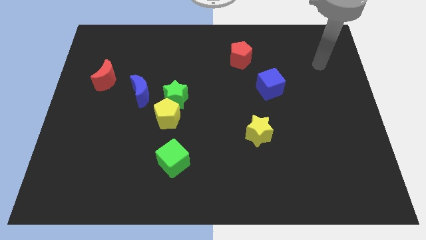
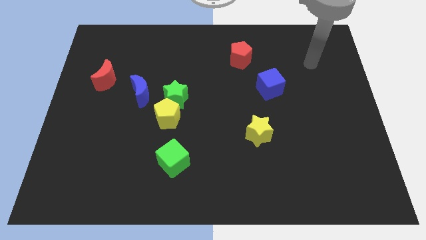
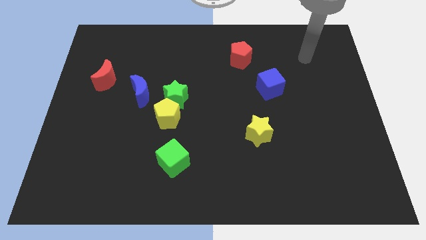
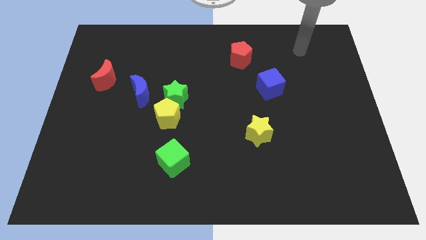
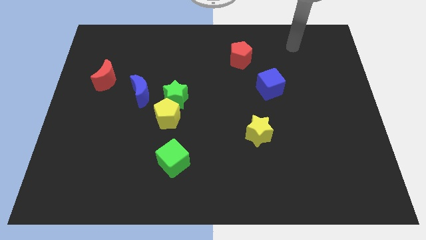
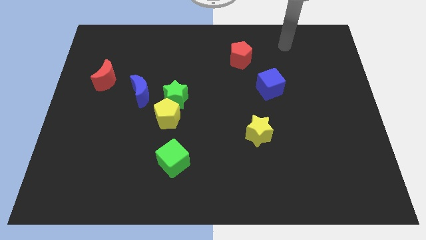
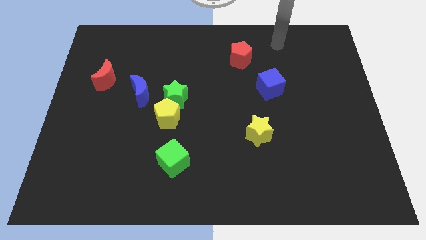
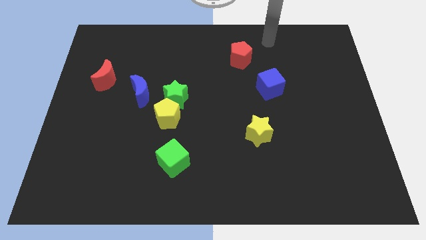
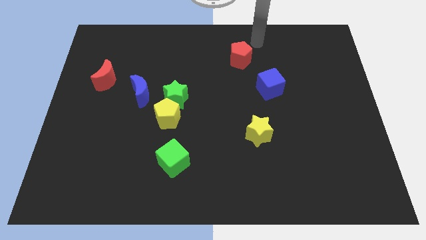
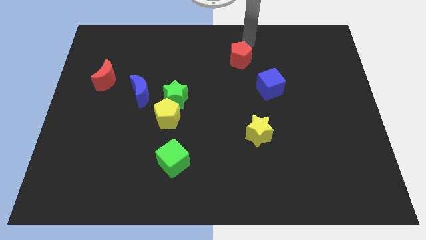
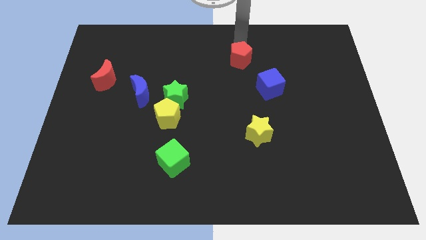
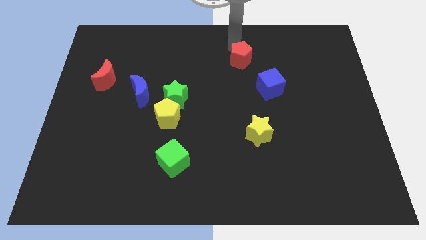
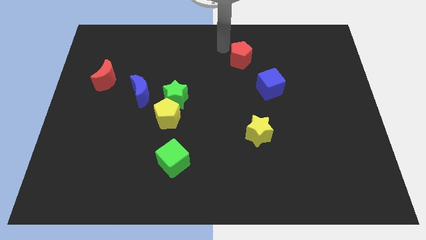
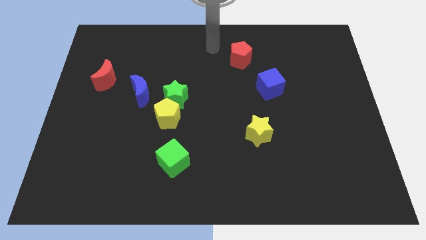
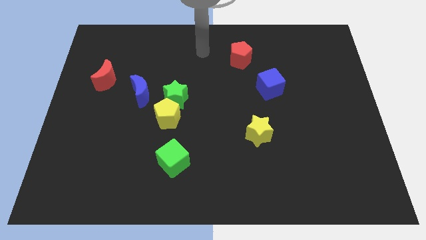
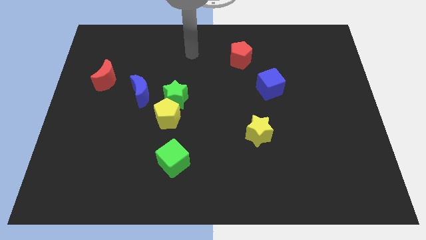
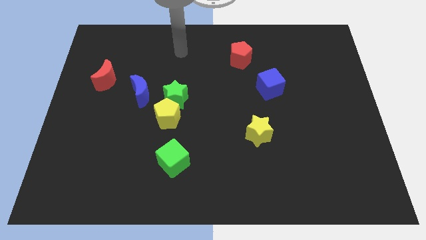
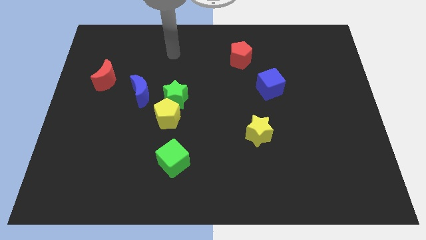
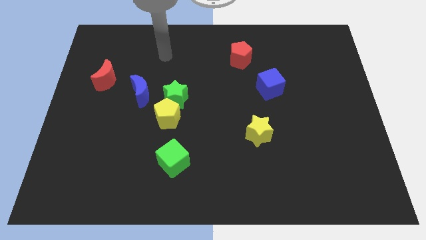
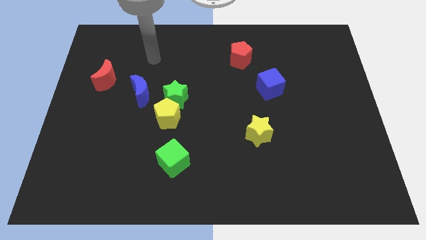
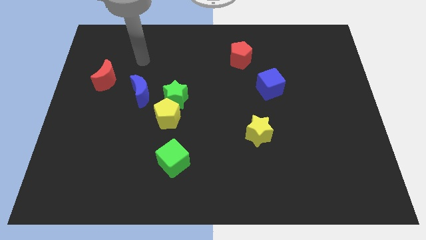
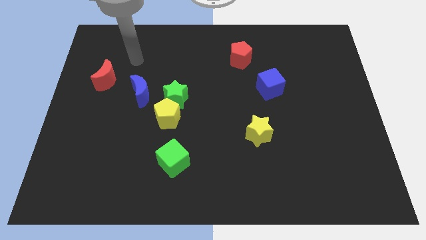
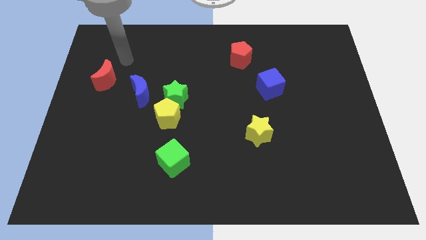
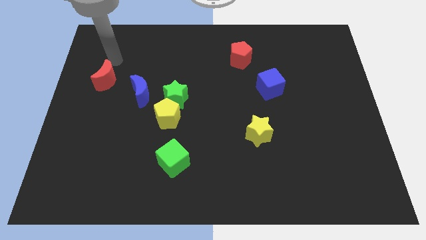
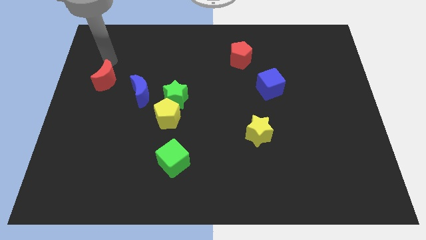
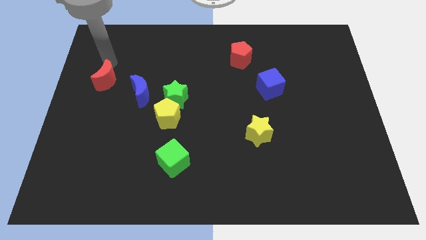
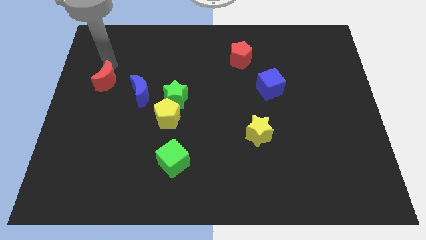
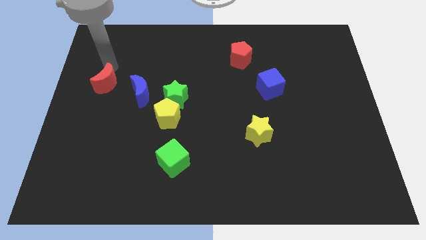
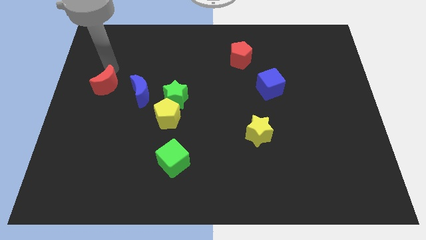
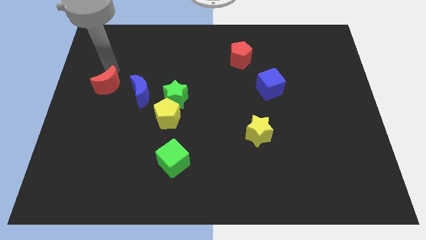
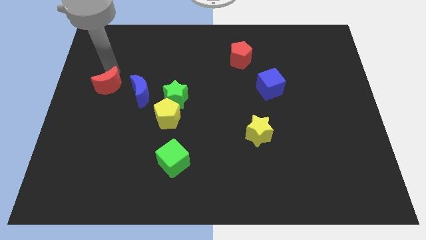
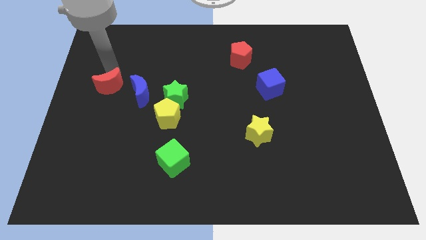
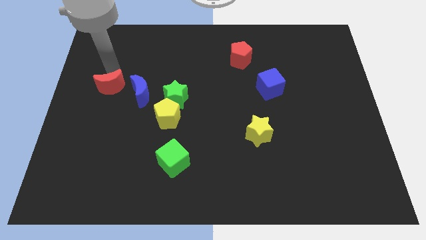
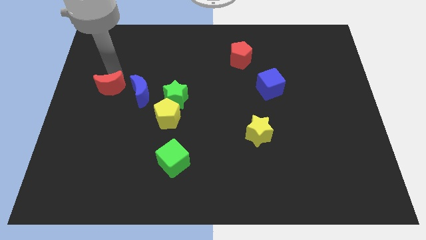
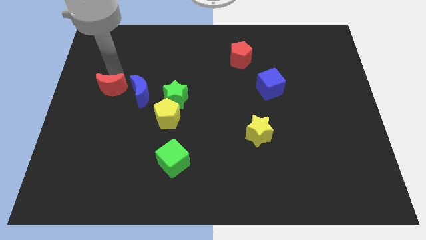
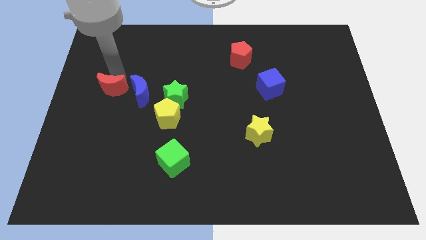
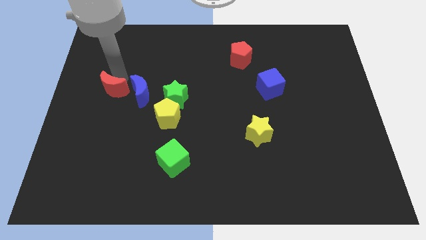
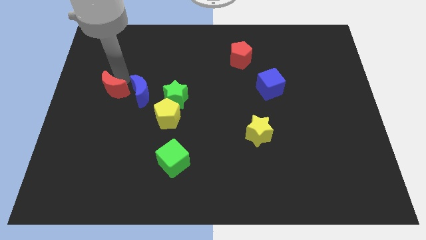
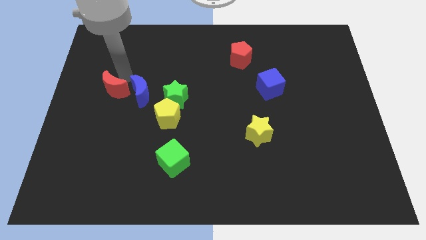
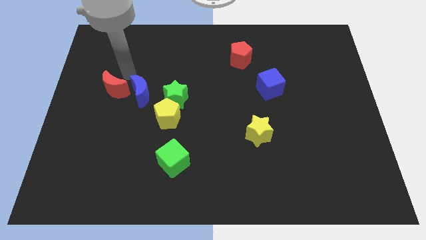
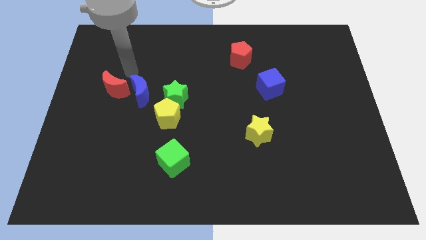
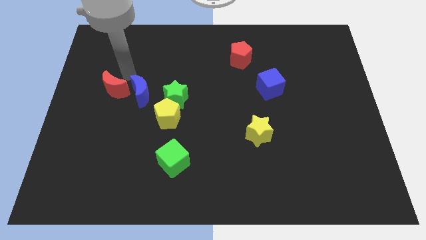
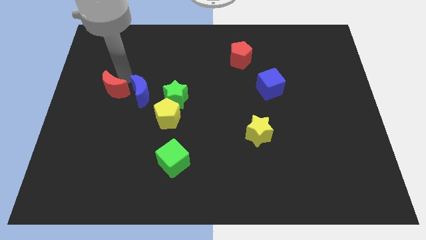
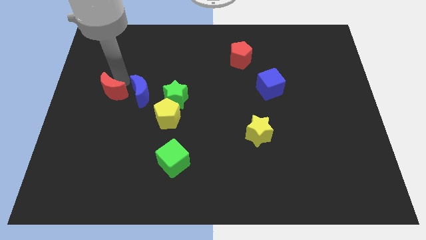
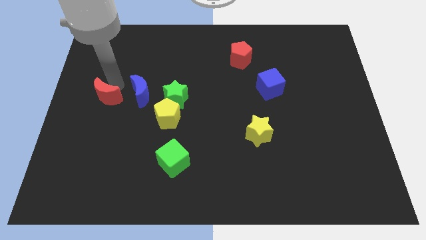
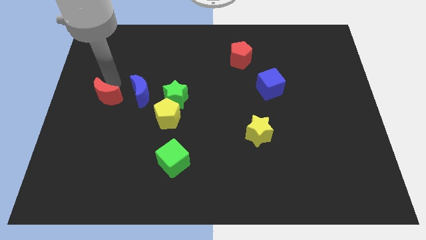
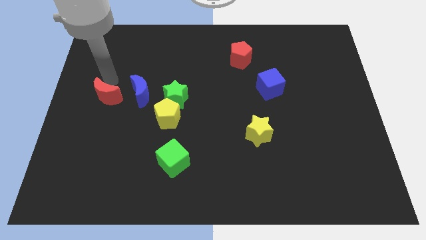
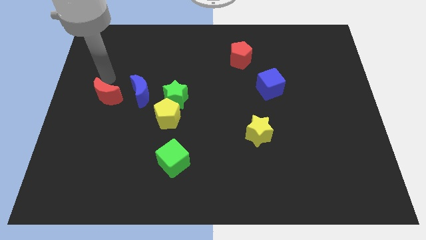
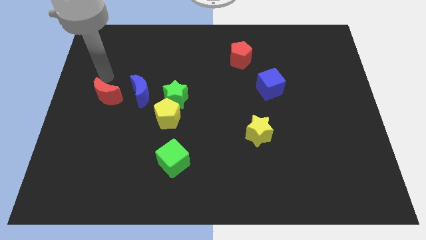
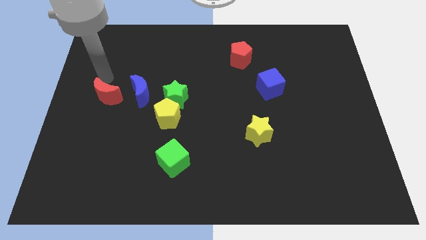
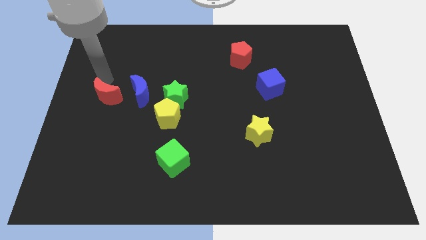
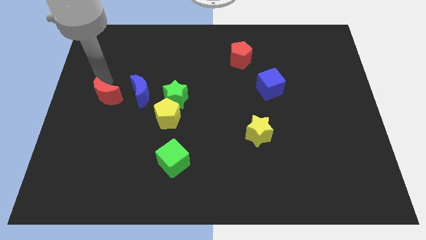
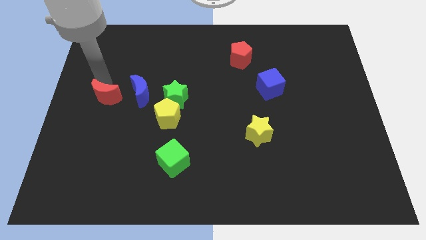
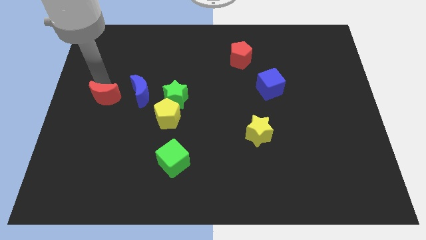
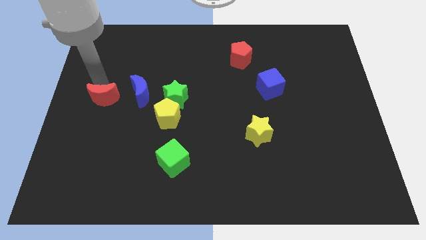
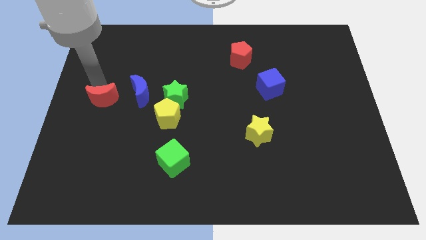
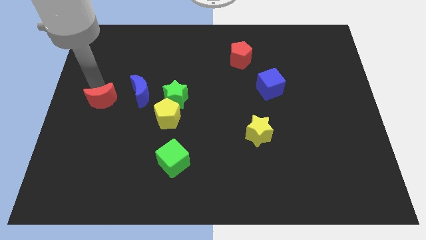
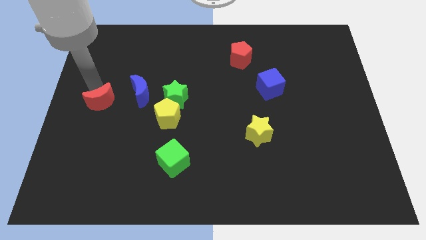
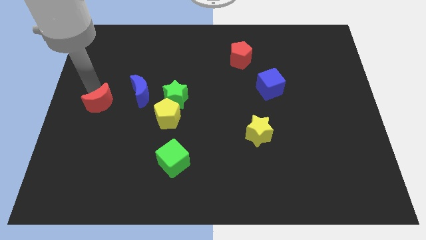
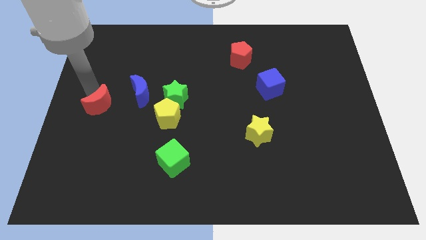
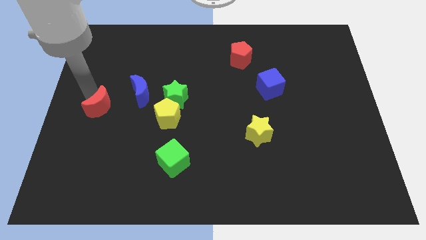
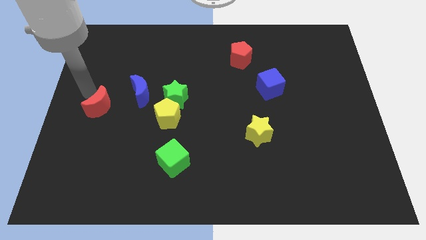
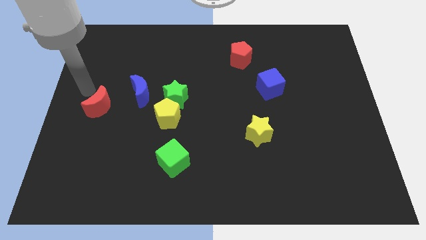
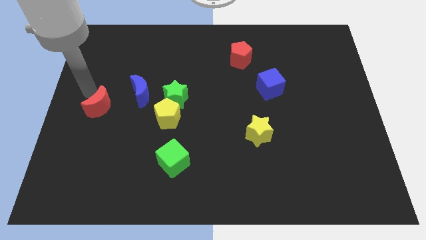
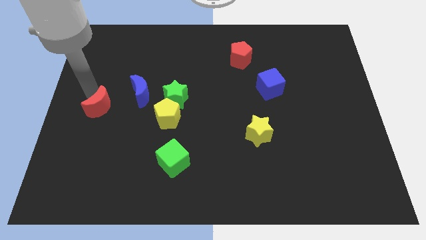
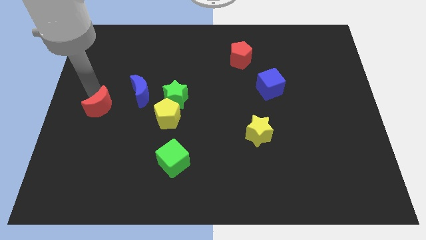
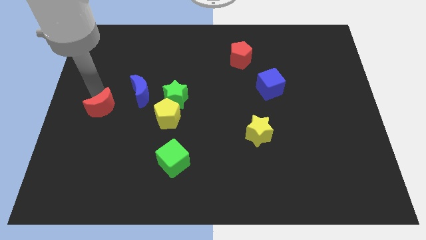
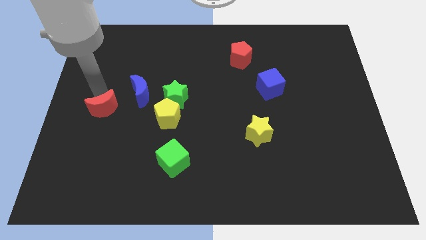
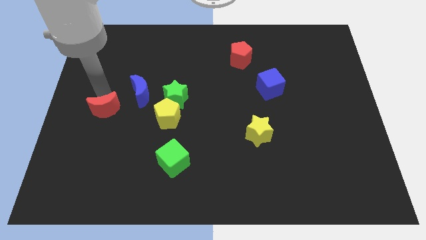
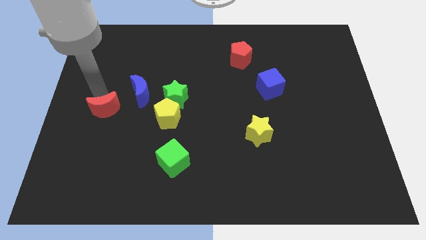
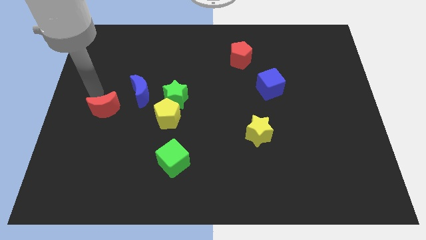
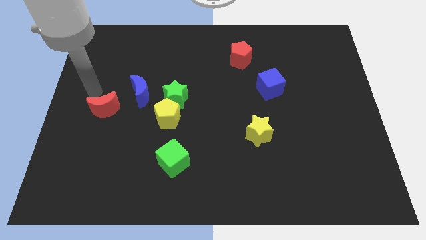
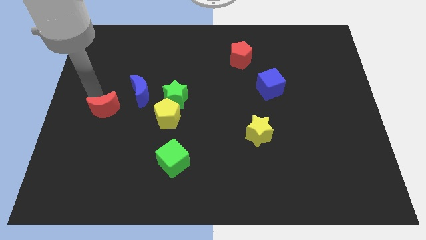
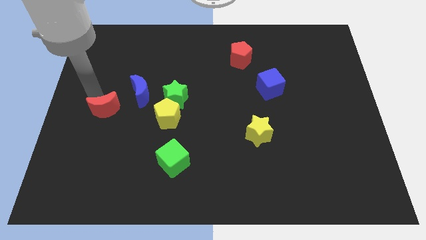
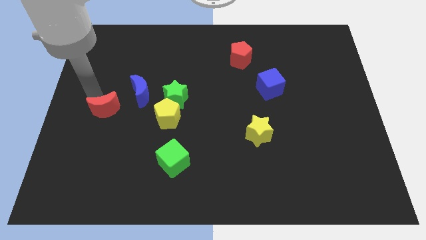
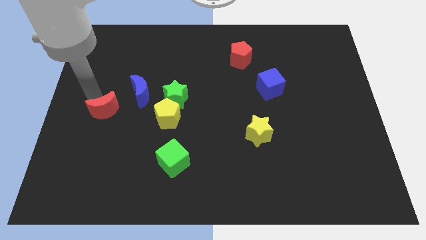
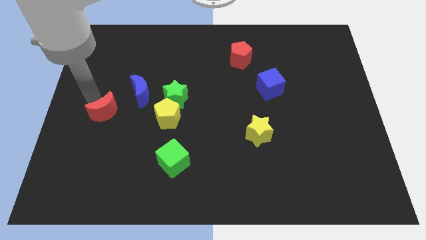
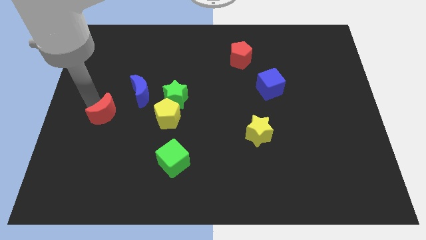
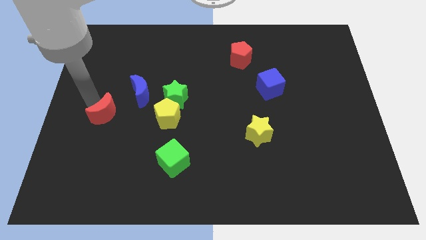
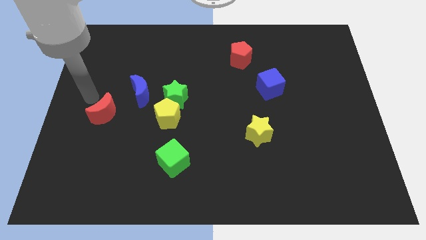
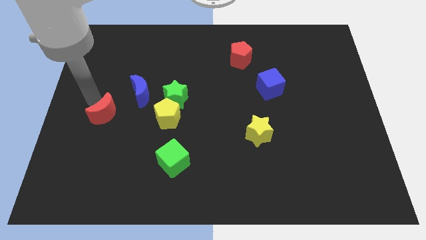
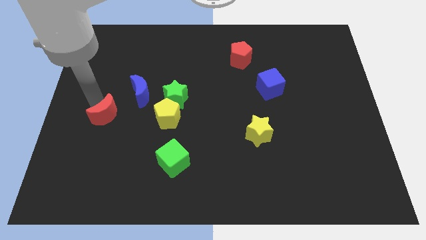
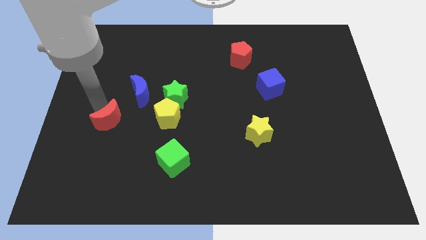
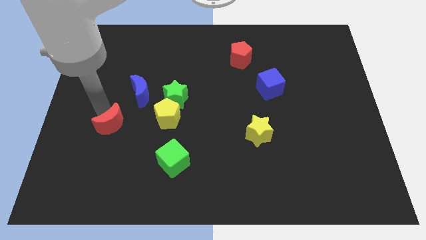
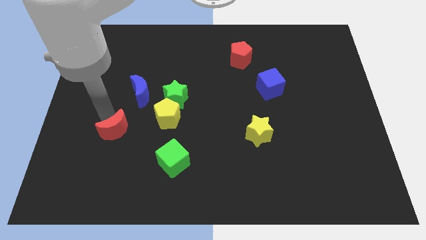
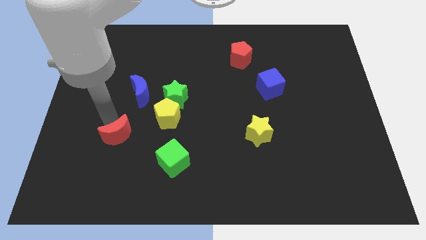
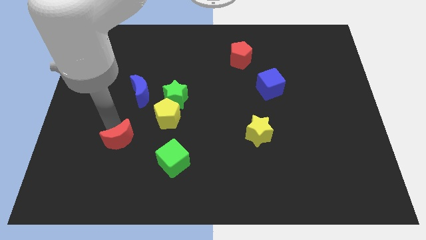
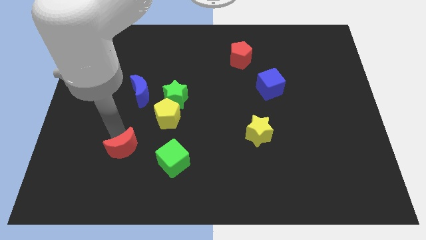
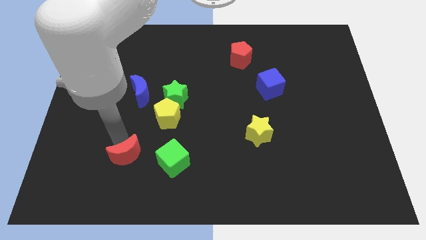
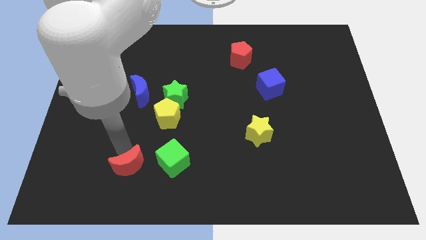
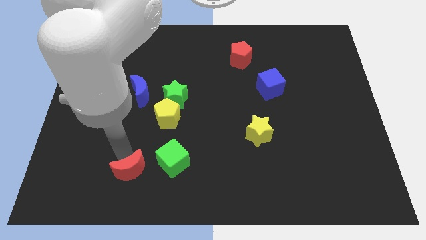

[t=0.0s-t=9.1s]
move the red moon to the bottom left of the green cube
